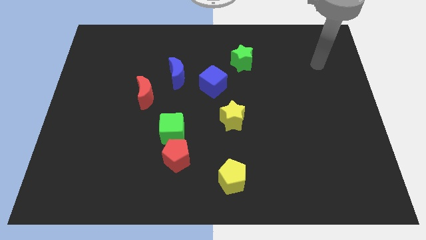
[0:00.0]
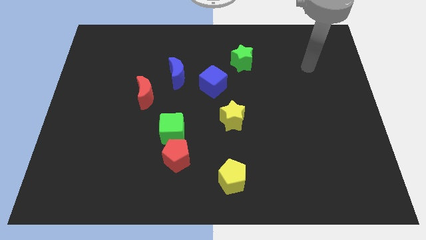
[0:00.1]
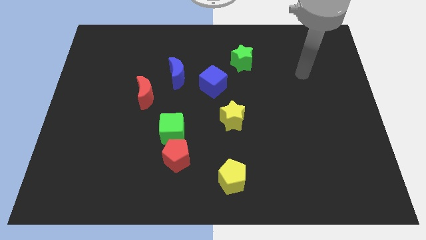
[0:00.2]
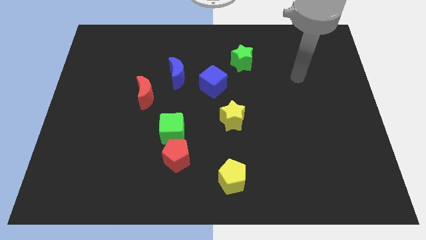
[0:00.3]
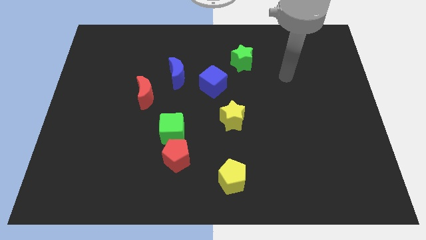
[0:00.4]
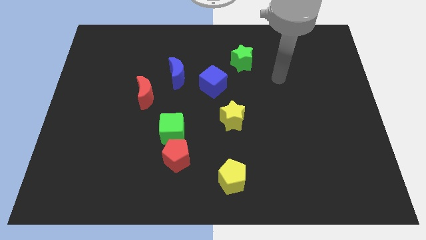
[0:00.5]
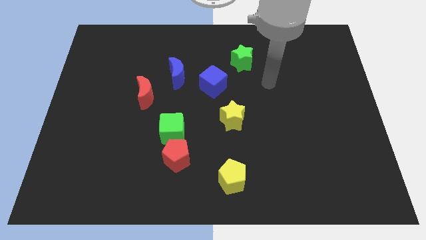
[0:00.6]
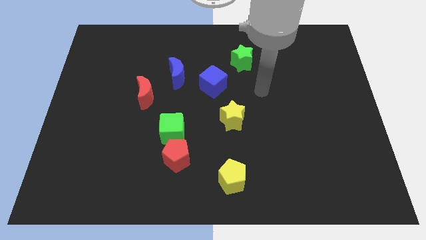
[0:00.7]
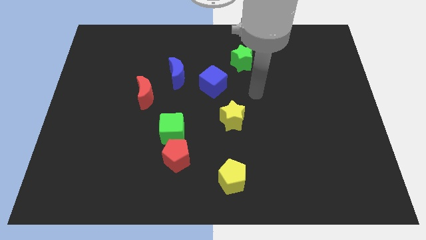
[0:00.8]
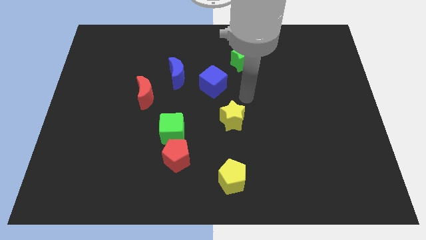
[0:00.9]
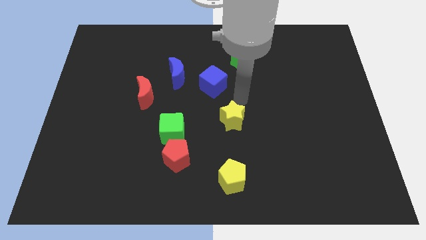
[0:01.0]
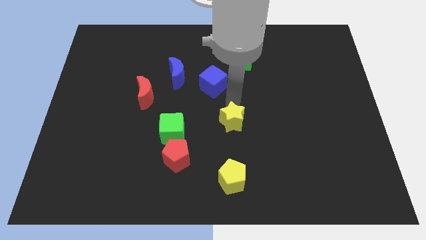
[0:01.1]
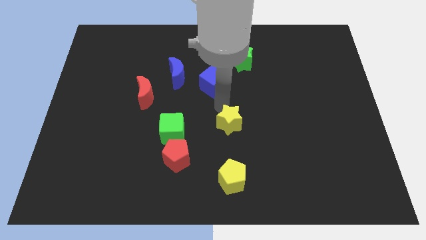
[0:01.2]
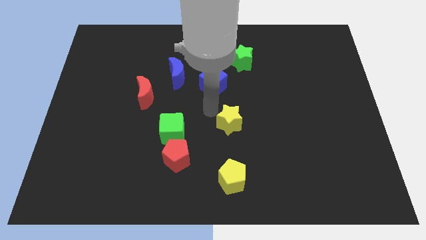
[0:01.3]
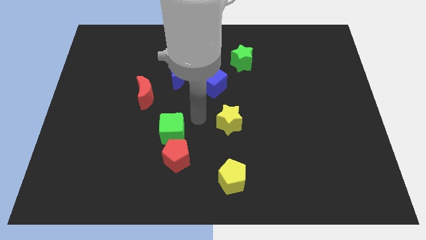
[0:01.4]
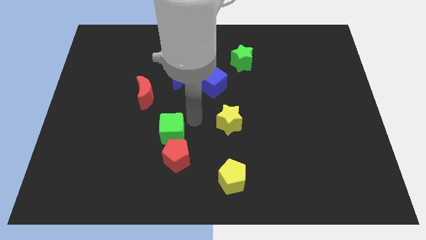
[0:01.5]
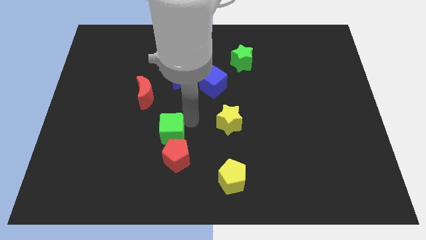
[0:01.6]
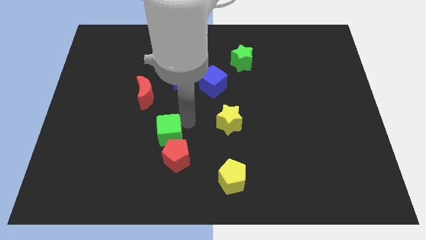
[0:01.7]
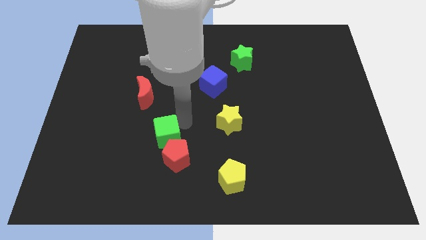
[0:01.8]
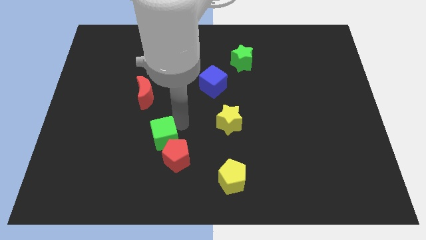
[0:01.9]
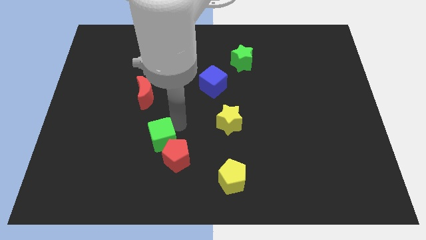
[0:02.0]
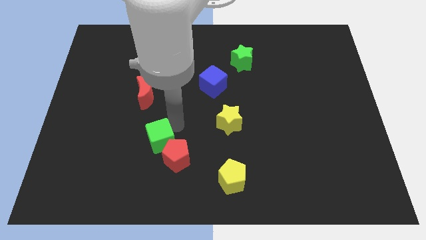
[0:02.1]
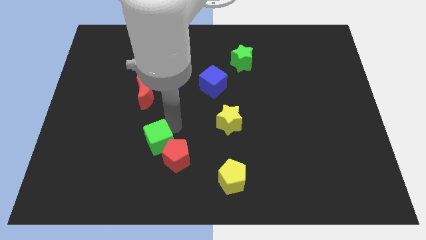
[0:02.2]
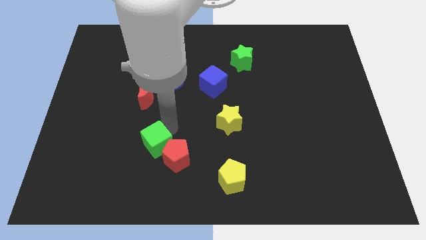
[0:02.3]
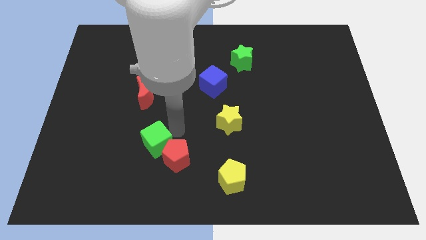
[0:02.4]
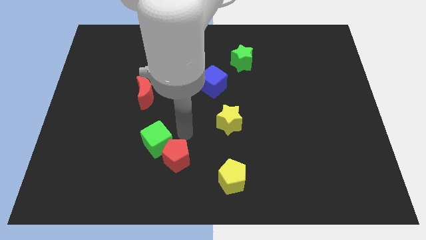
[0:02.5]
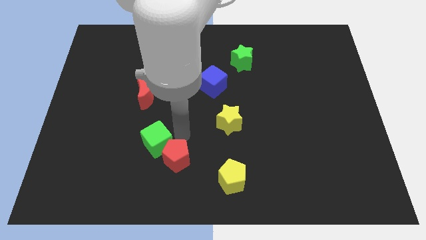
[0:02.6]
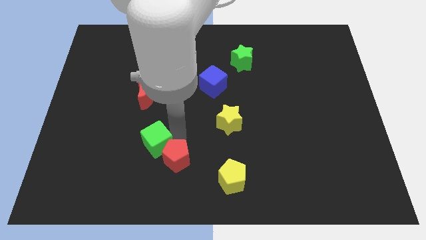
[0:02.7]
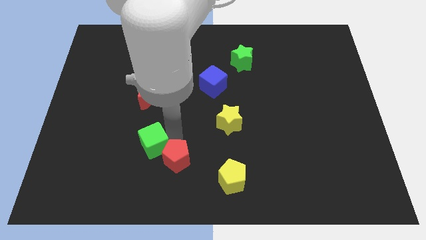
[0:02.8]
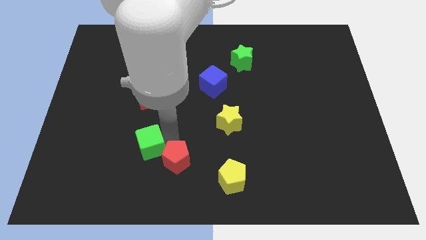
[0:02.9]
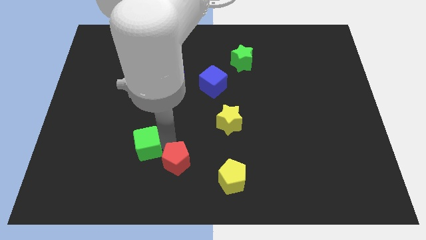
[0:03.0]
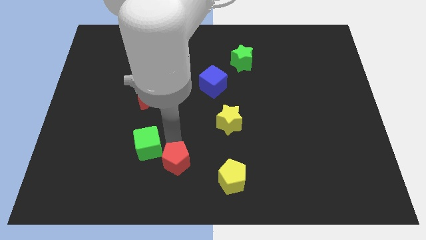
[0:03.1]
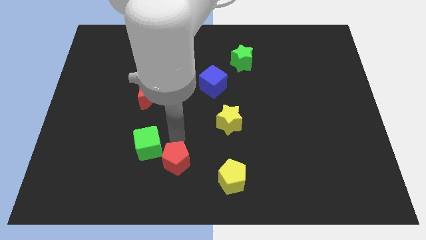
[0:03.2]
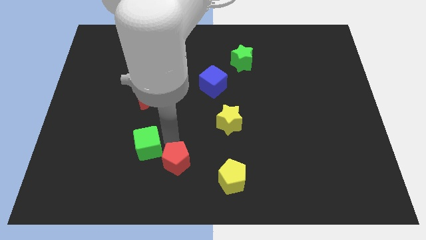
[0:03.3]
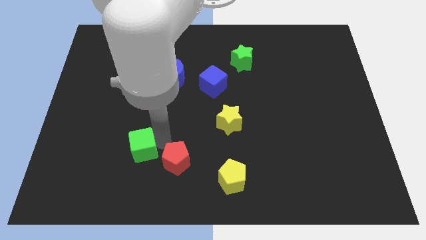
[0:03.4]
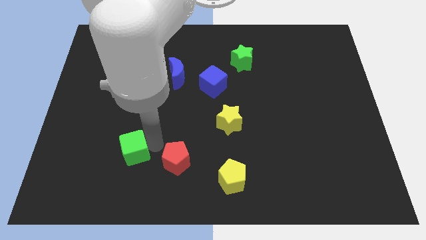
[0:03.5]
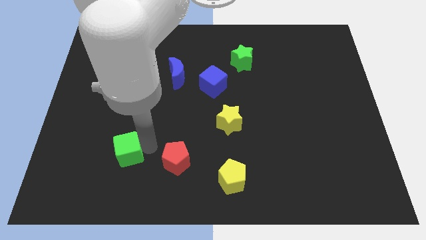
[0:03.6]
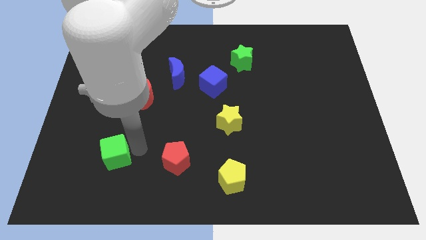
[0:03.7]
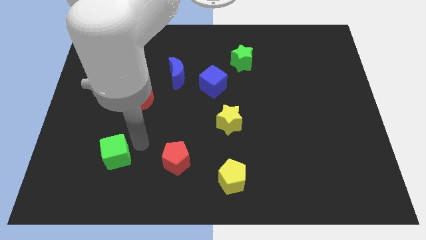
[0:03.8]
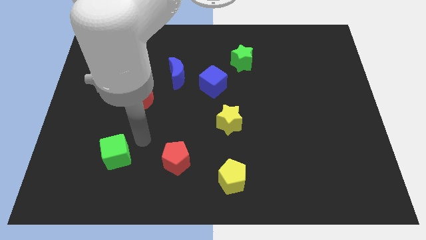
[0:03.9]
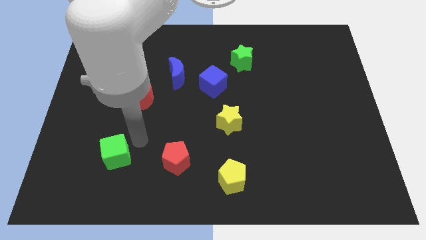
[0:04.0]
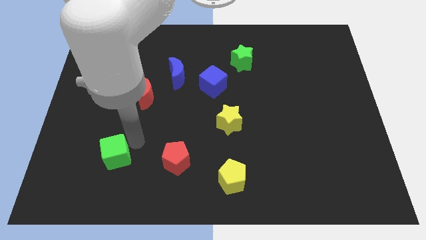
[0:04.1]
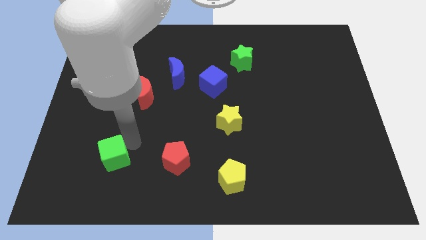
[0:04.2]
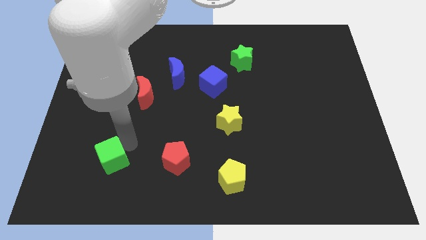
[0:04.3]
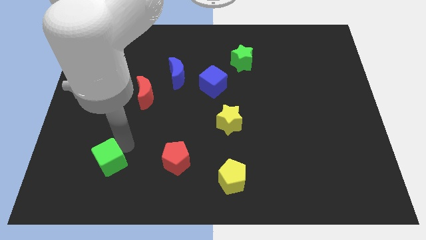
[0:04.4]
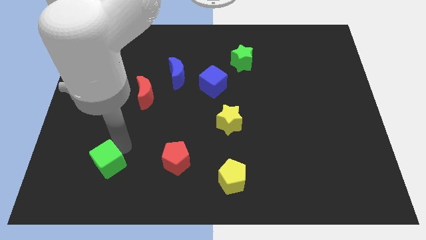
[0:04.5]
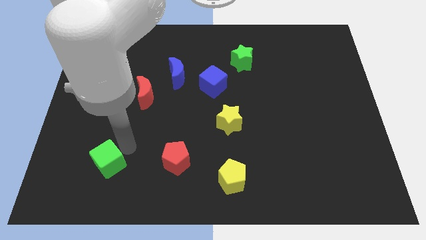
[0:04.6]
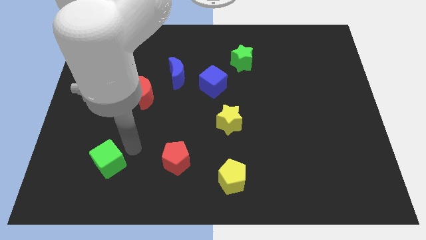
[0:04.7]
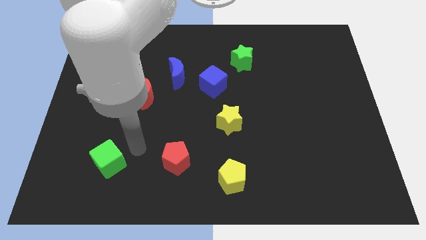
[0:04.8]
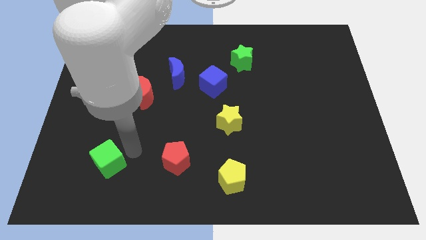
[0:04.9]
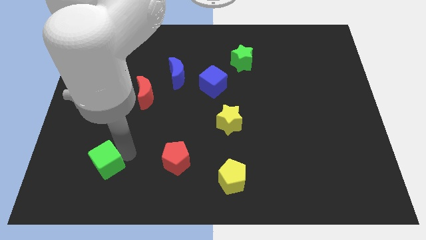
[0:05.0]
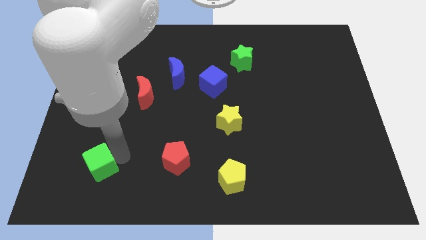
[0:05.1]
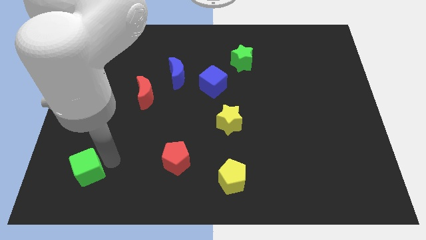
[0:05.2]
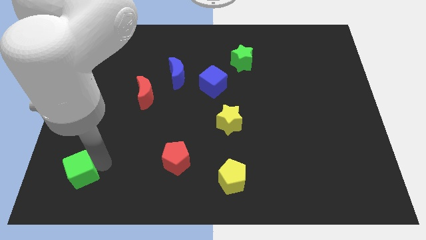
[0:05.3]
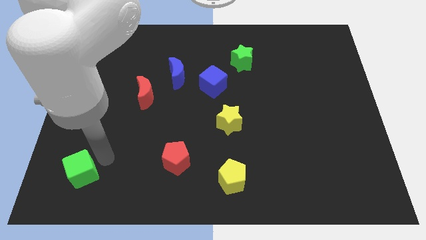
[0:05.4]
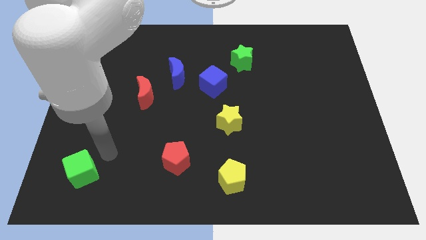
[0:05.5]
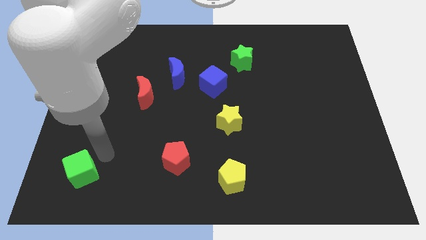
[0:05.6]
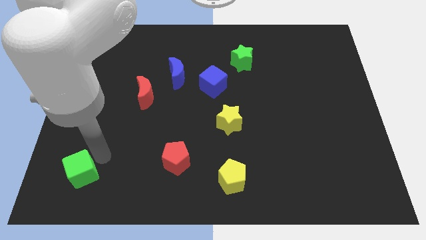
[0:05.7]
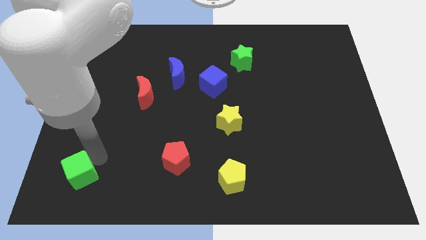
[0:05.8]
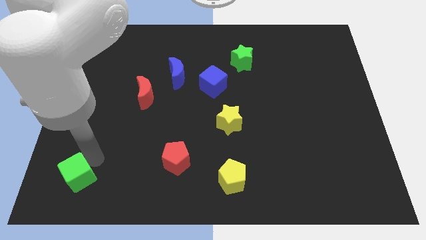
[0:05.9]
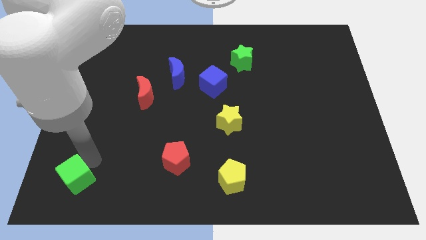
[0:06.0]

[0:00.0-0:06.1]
put the green cube to the bottom left corner

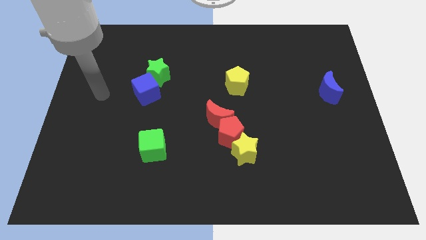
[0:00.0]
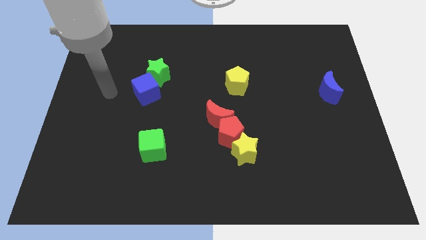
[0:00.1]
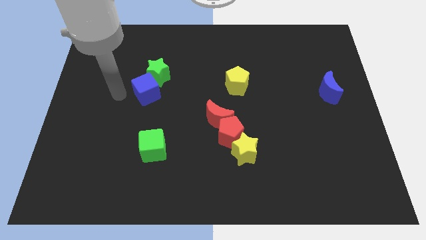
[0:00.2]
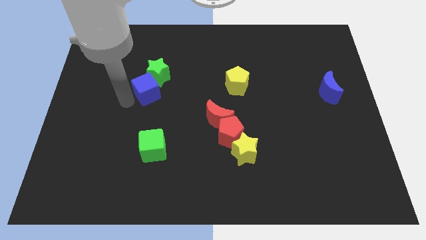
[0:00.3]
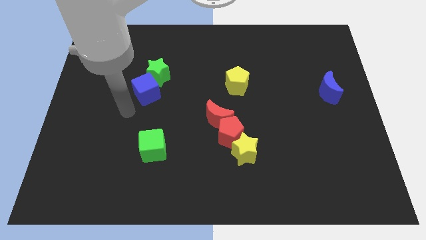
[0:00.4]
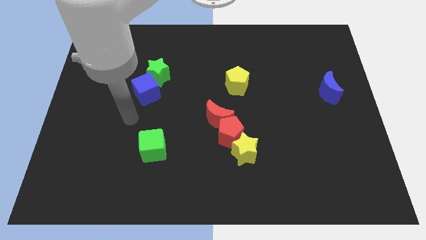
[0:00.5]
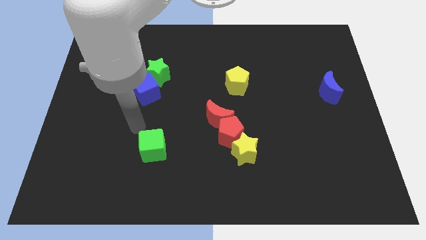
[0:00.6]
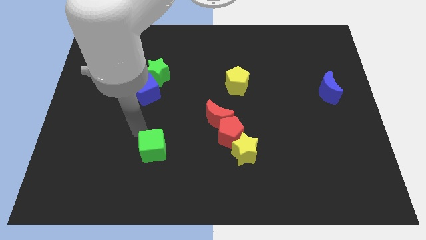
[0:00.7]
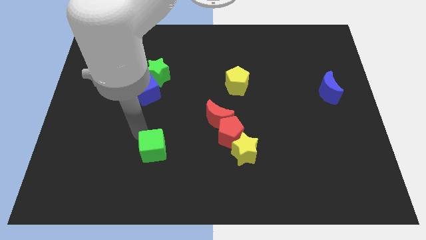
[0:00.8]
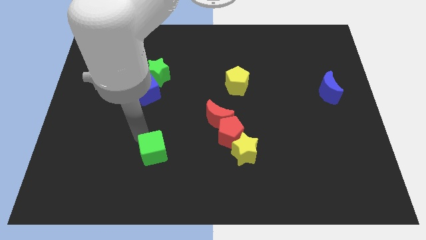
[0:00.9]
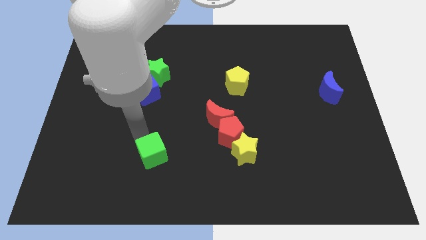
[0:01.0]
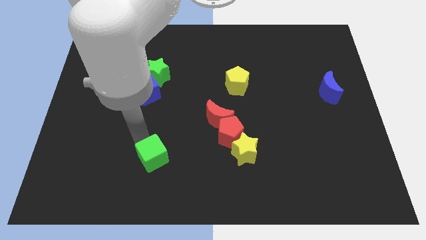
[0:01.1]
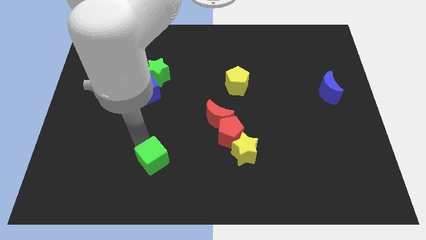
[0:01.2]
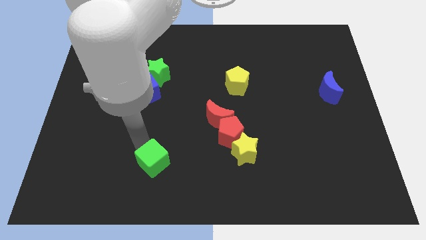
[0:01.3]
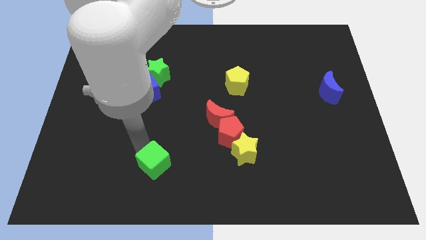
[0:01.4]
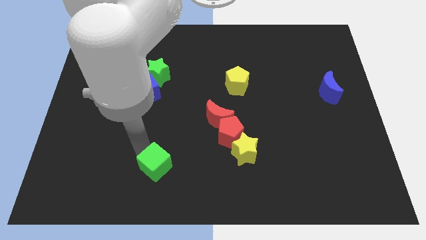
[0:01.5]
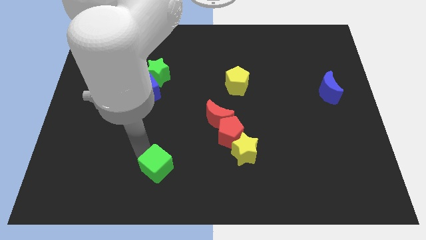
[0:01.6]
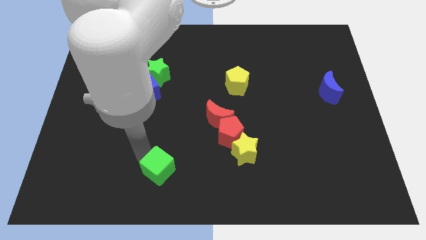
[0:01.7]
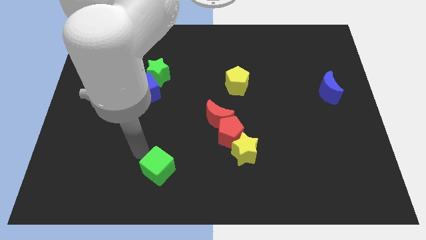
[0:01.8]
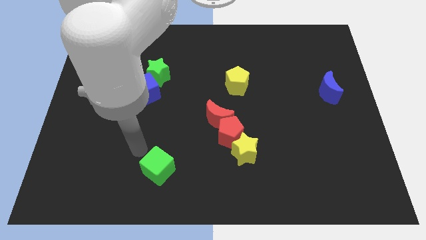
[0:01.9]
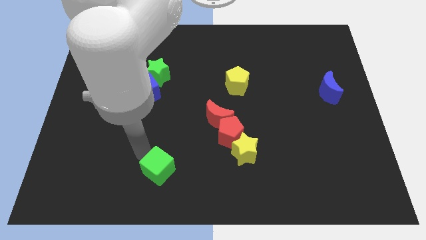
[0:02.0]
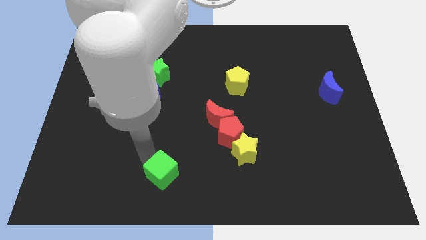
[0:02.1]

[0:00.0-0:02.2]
put the green cube to the bottom side
